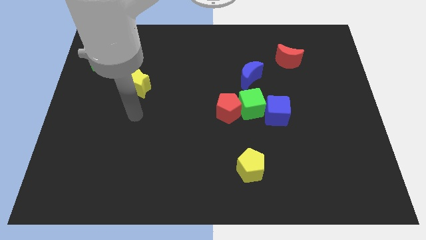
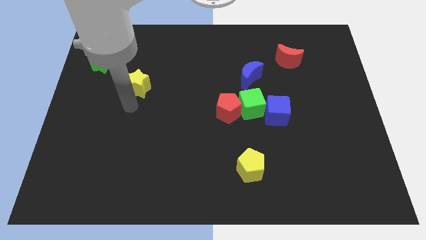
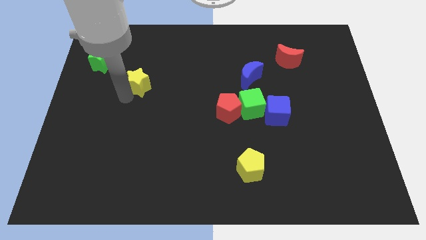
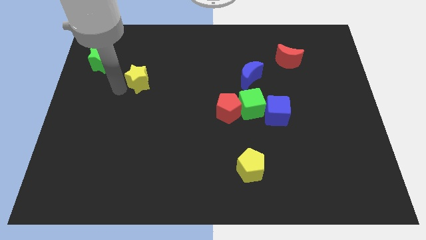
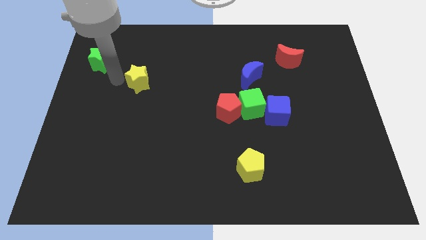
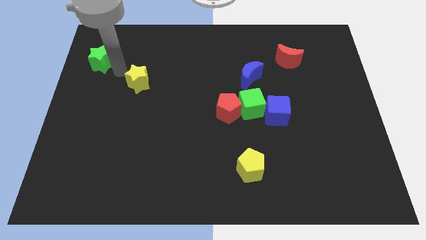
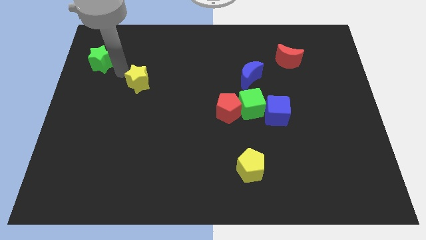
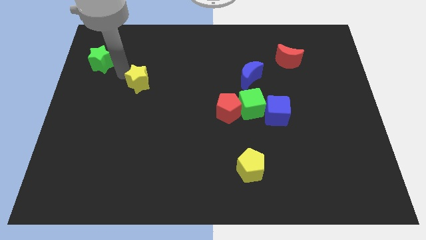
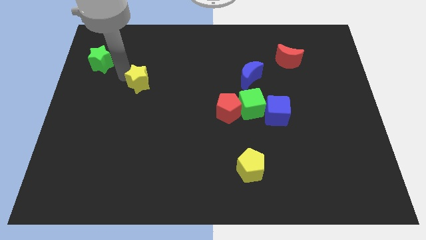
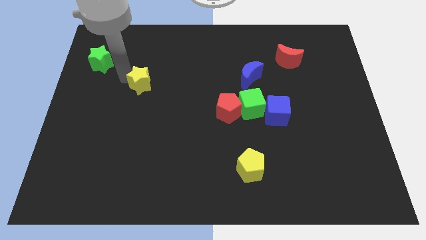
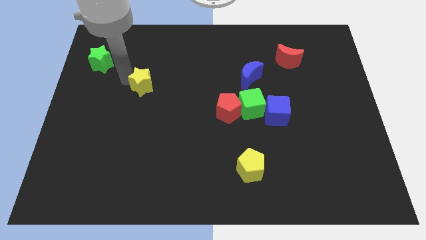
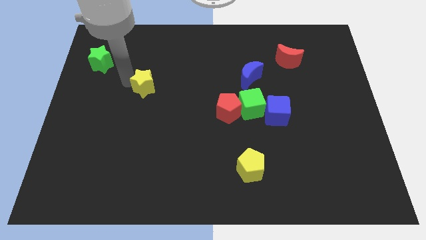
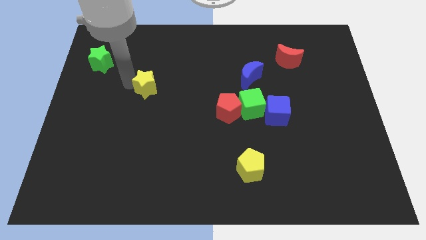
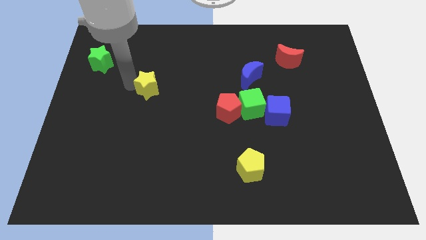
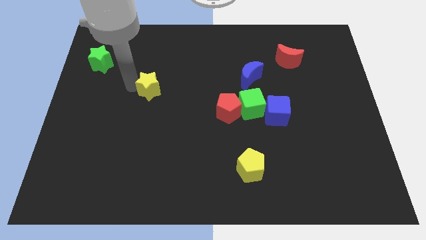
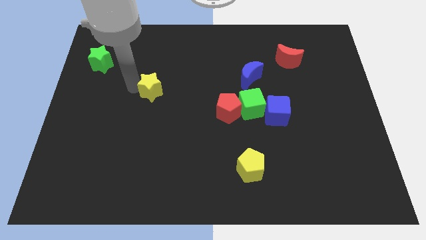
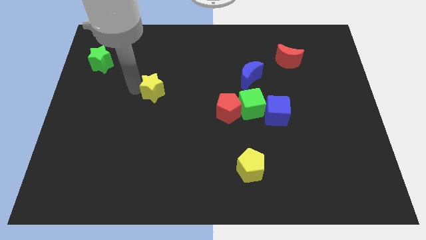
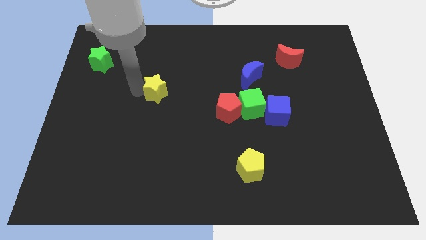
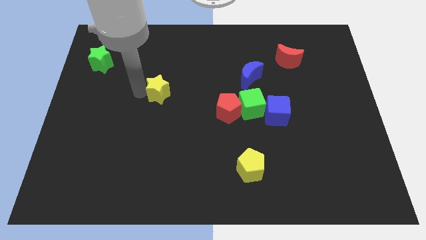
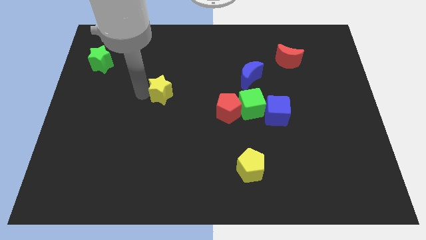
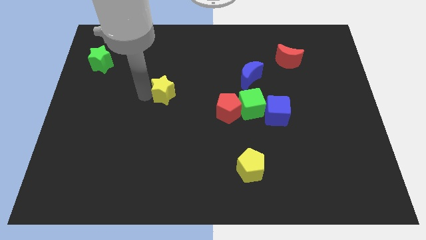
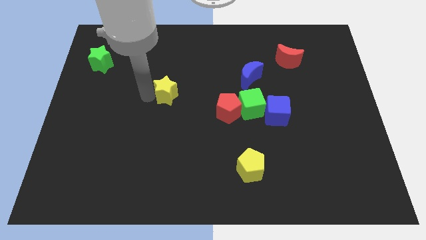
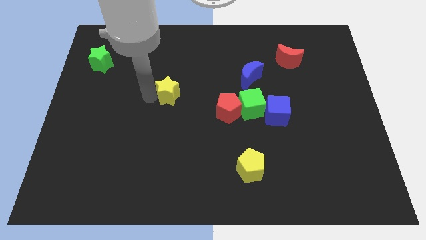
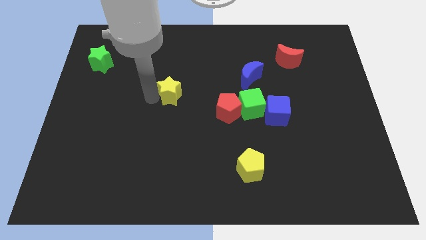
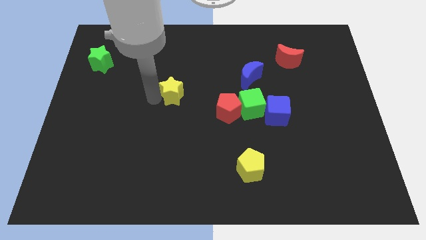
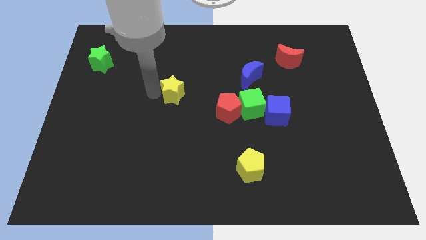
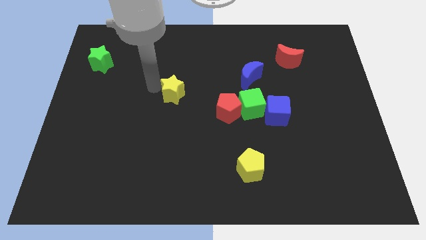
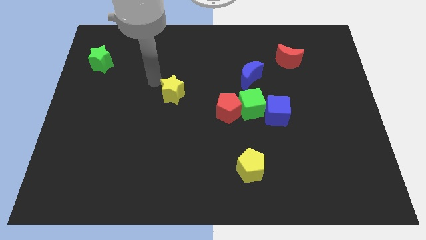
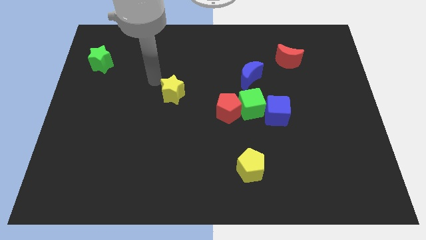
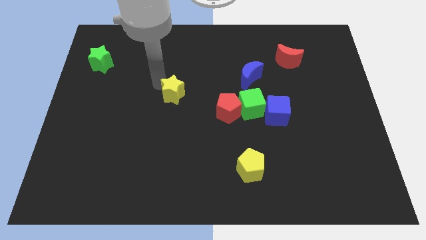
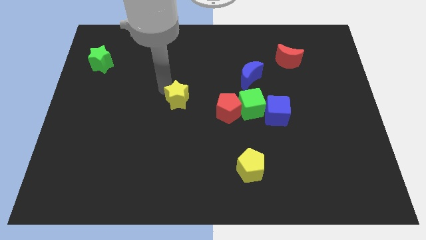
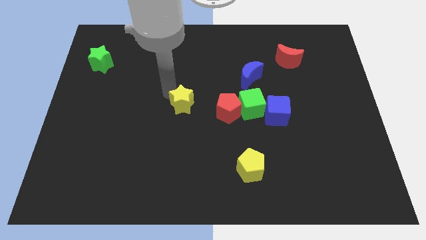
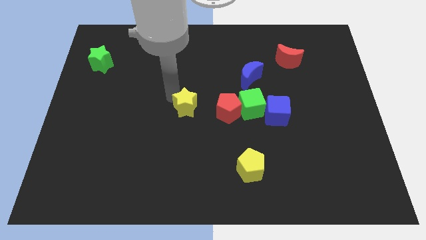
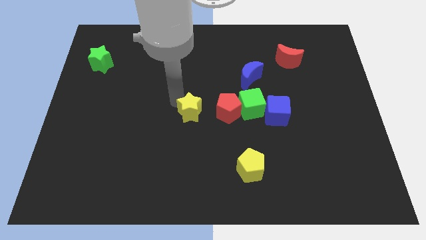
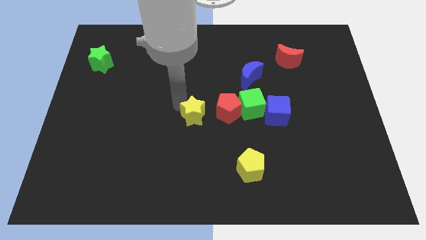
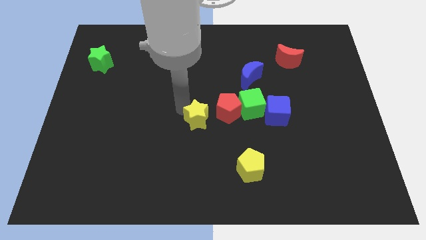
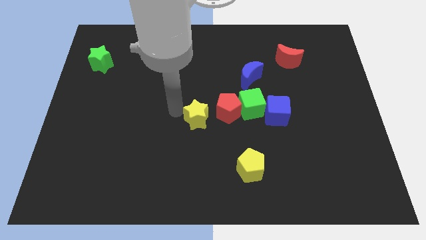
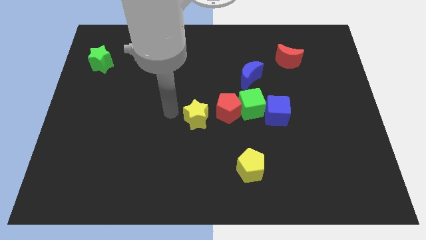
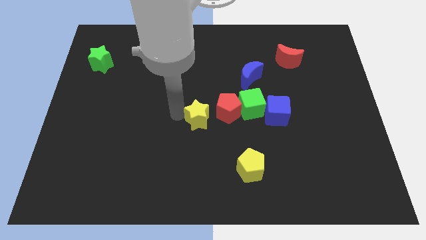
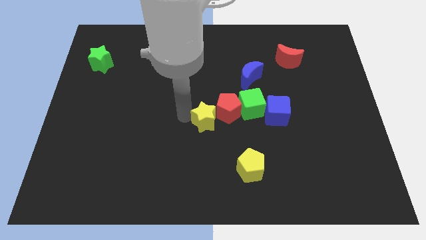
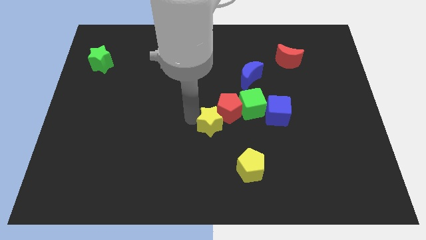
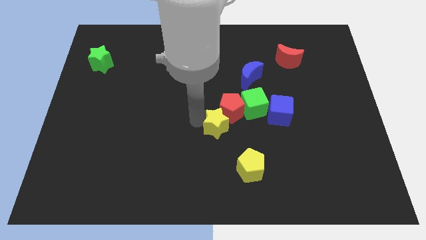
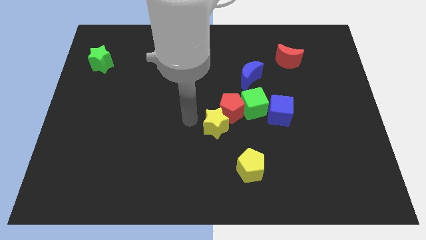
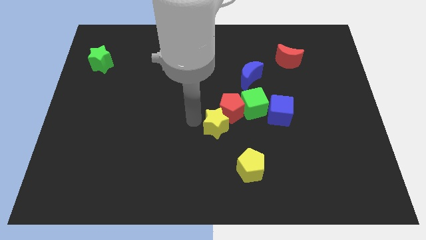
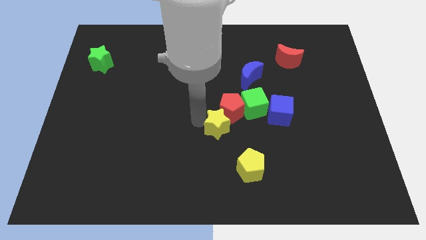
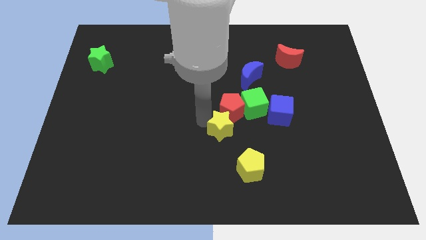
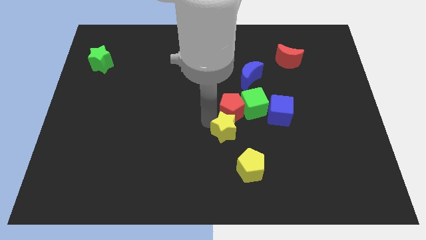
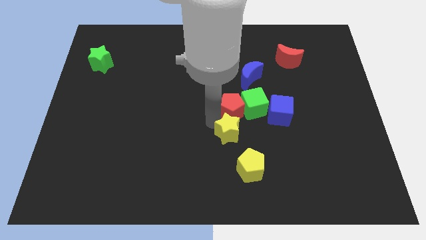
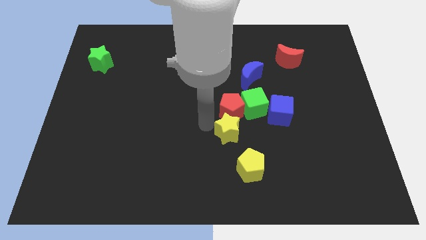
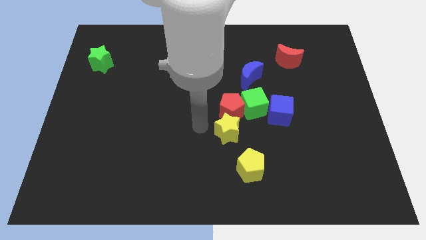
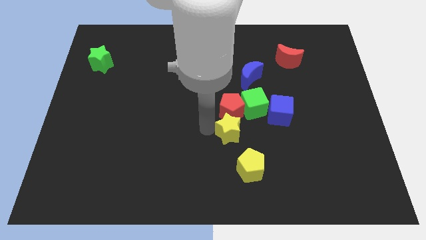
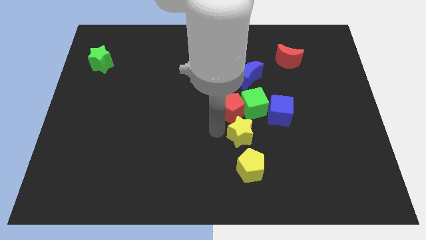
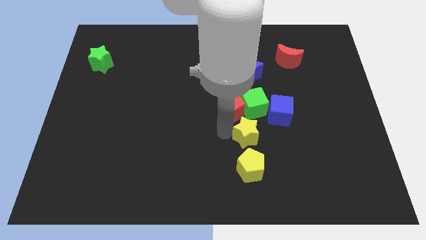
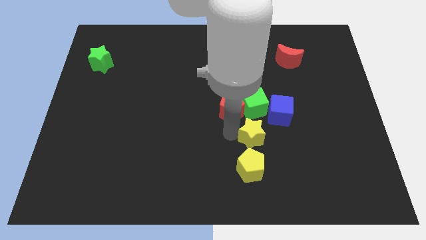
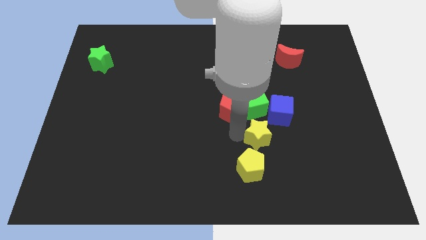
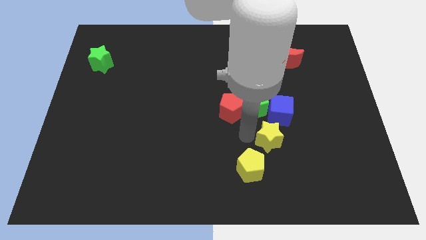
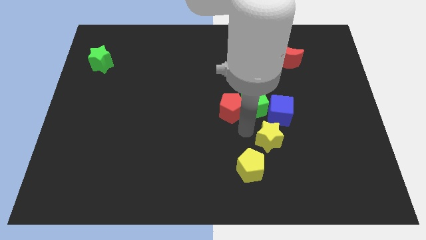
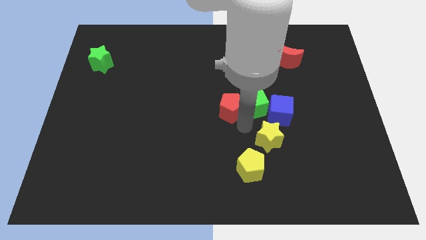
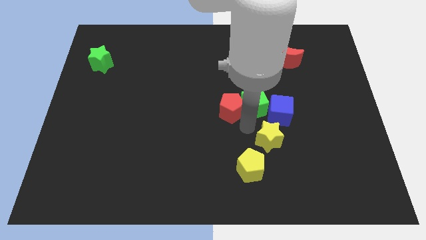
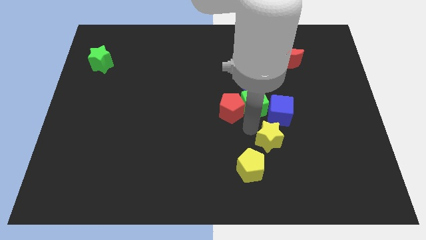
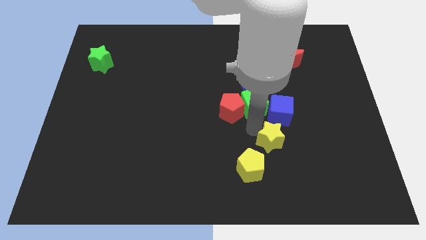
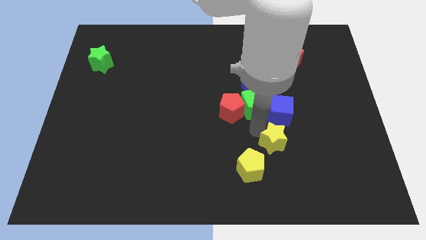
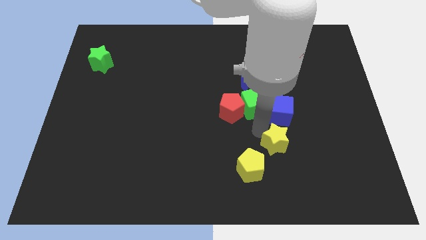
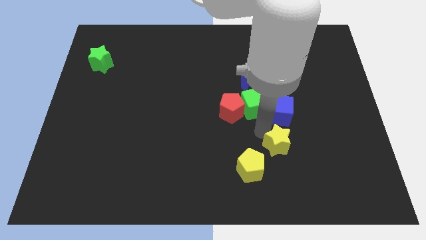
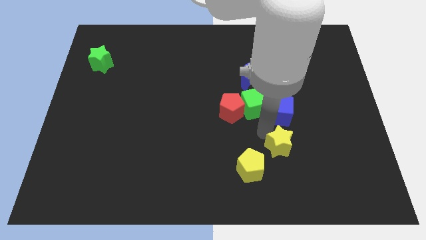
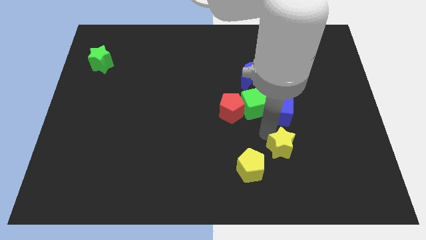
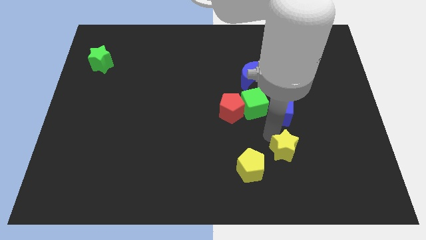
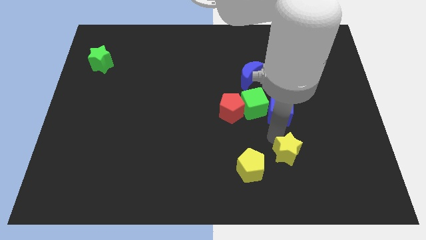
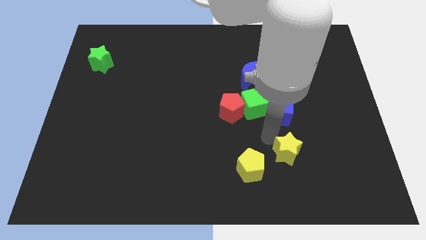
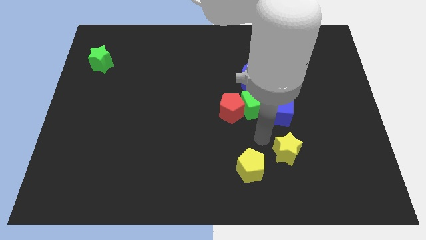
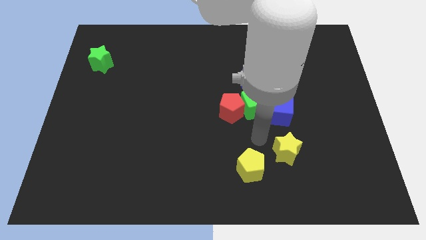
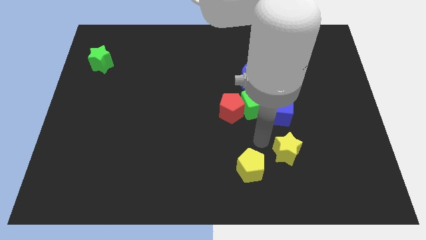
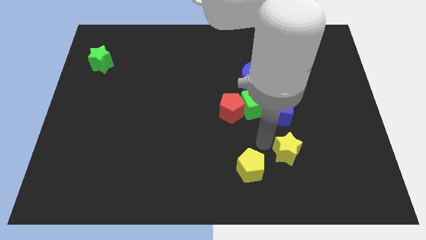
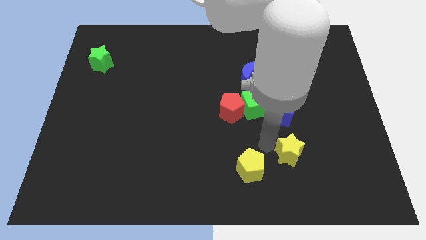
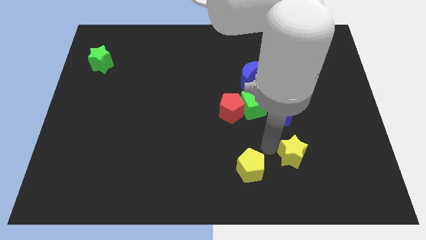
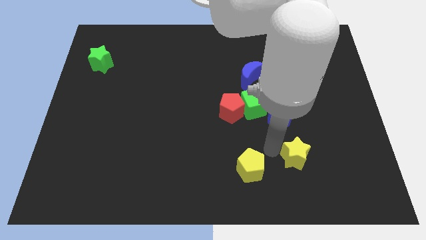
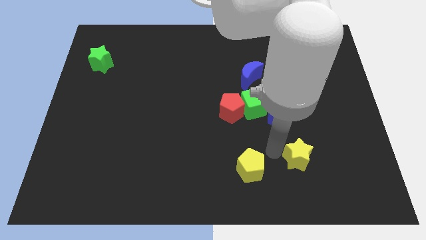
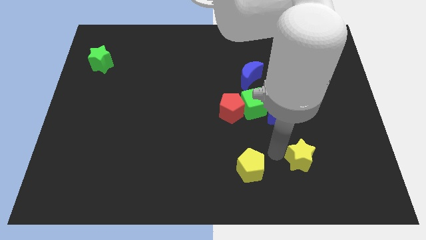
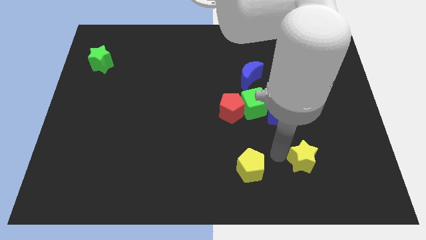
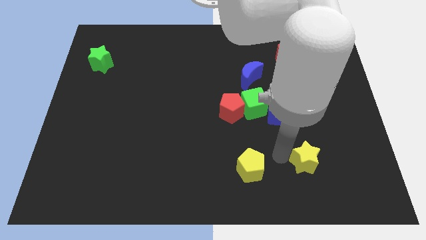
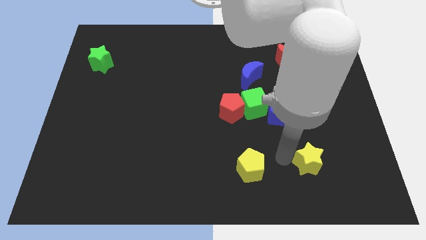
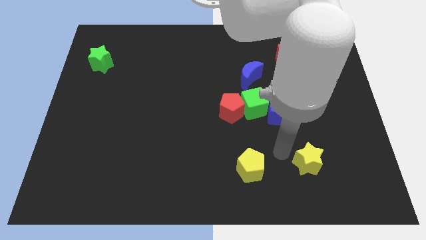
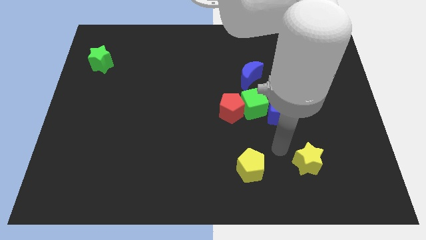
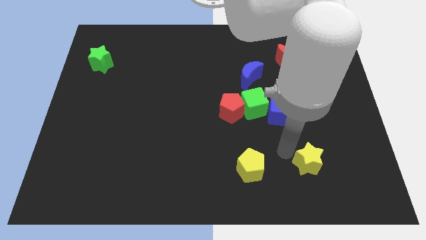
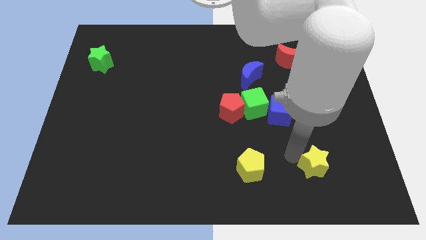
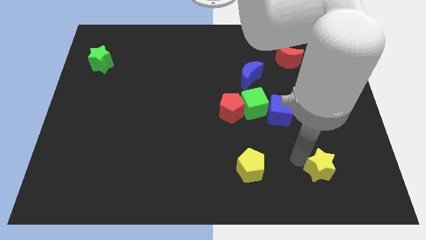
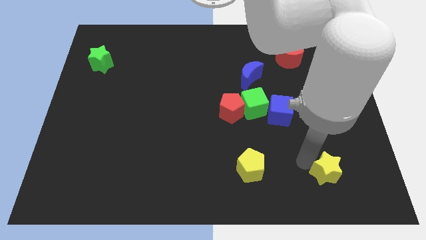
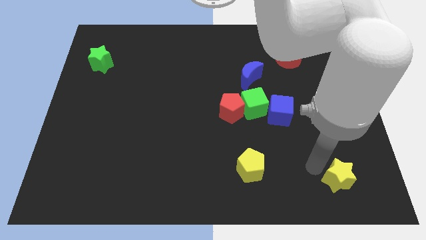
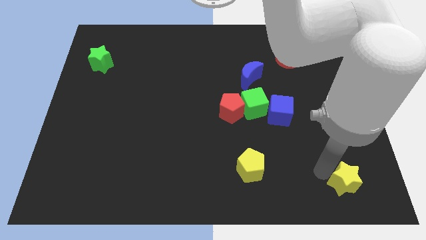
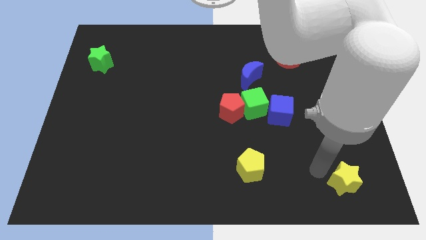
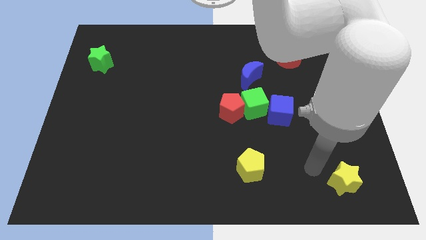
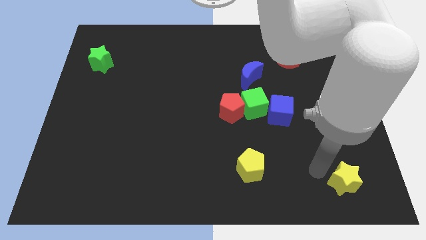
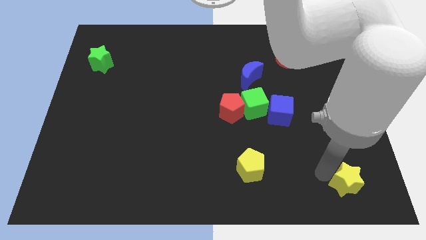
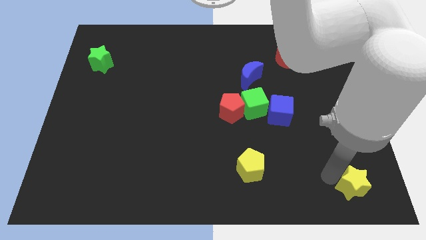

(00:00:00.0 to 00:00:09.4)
push the yellow star to the bottom right
